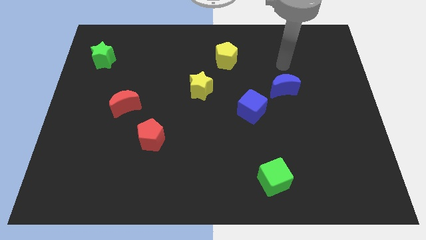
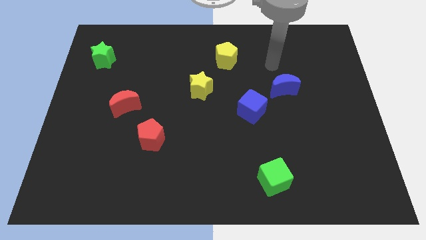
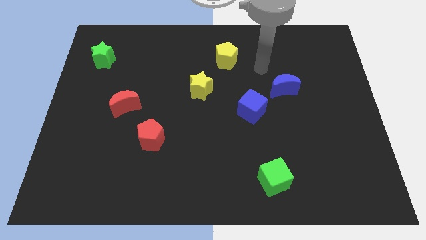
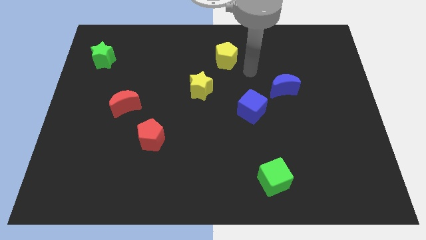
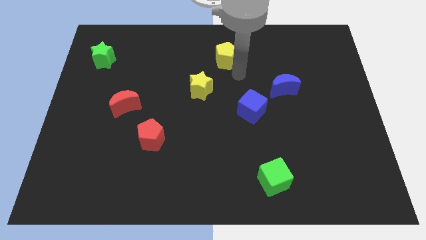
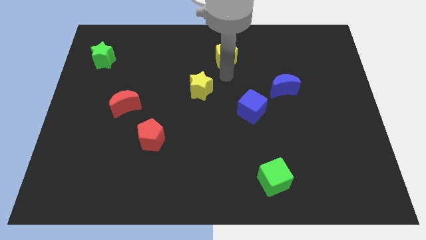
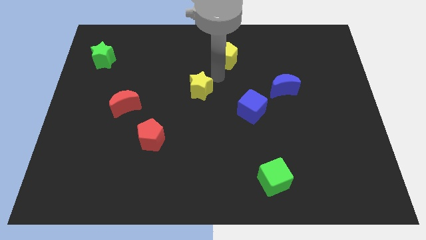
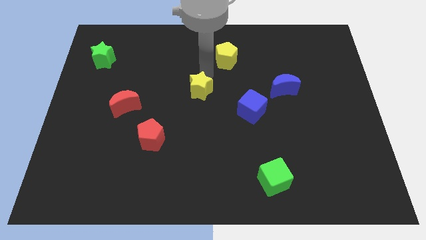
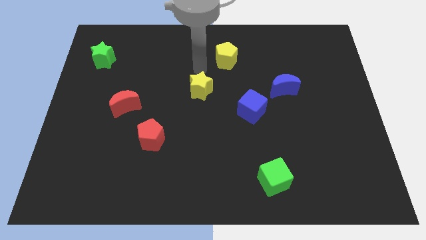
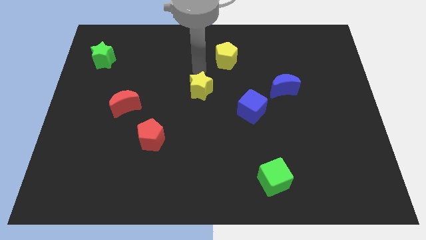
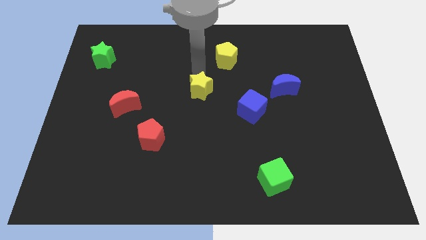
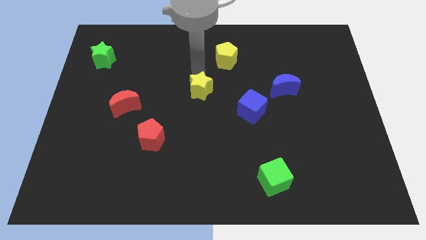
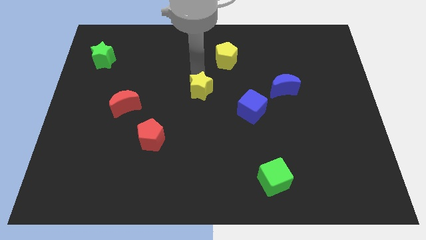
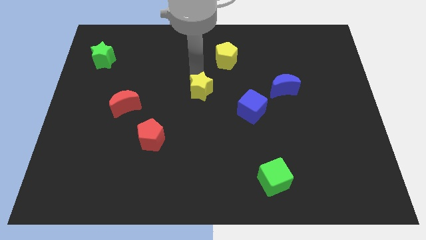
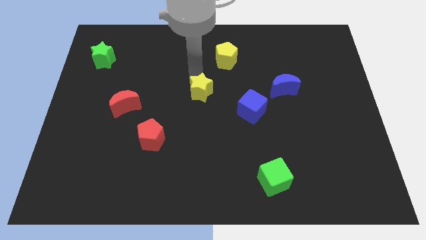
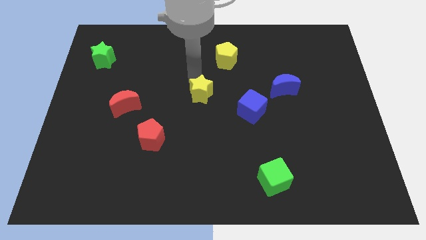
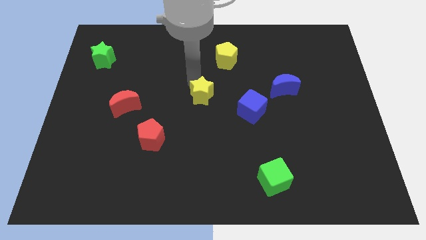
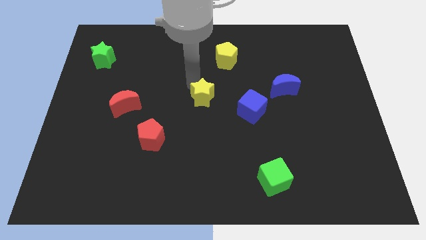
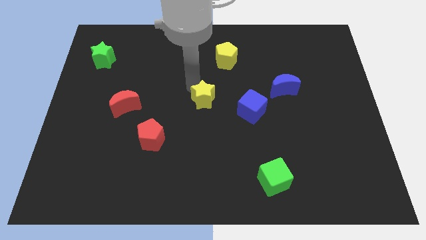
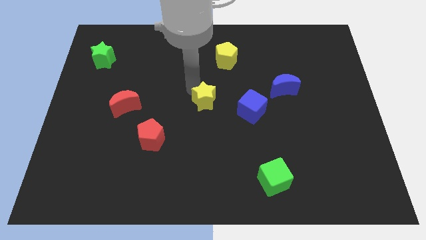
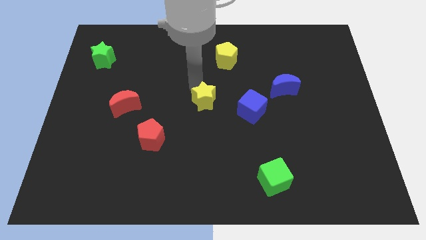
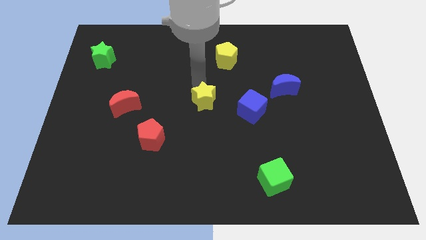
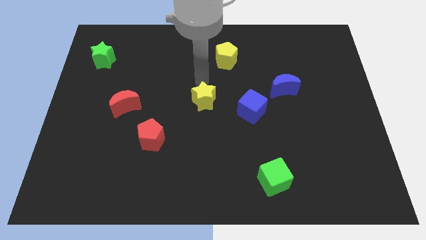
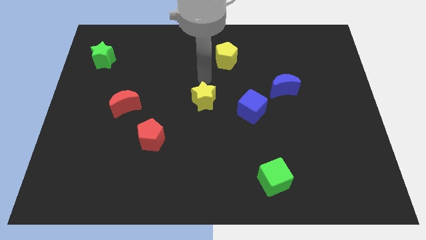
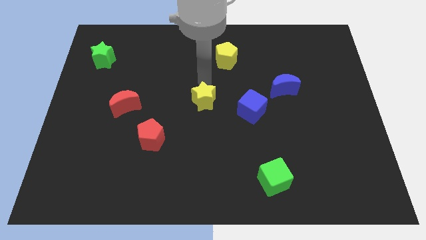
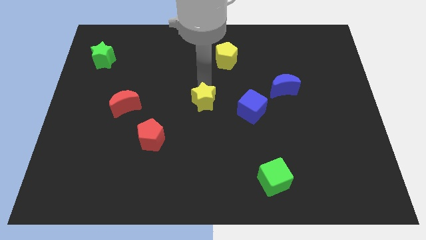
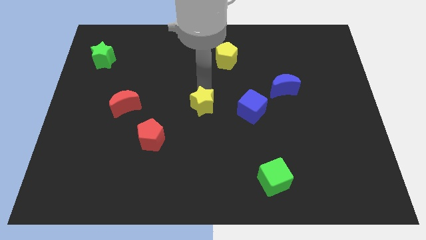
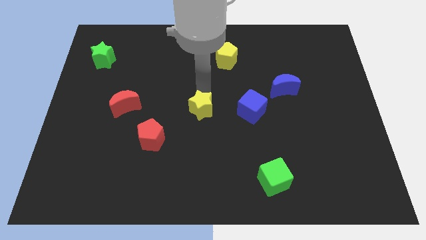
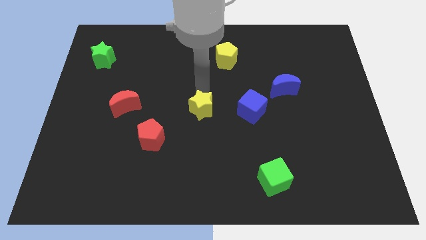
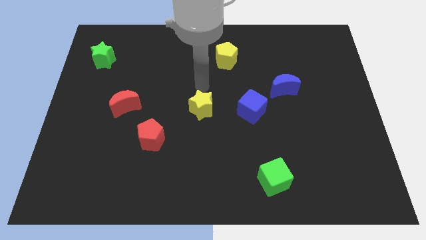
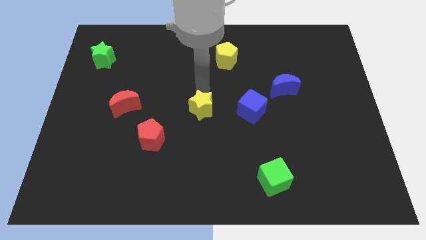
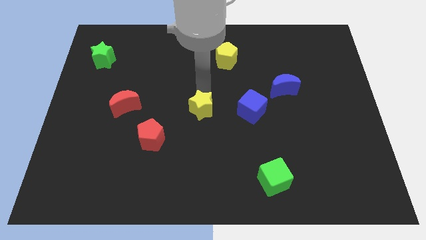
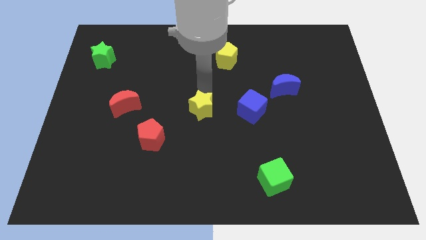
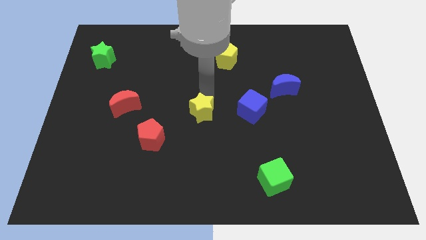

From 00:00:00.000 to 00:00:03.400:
push the yellow star a little downwards

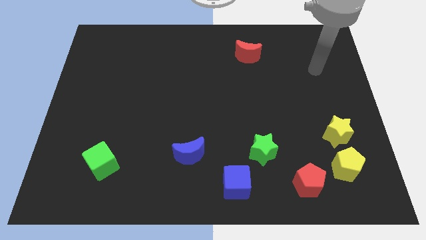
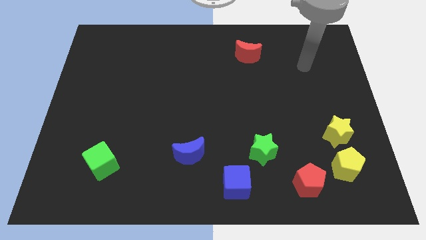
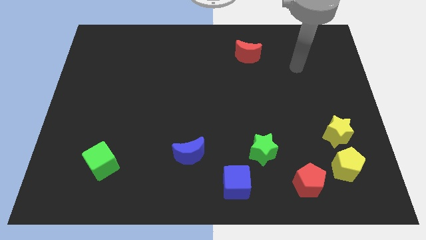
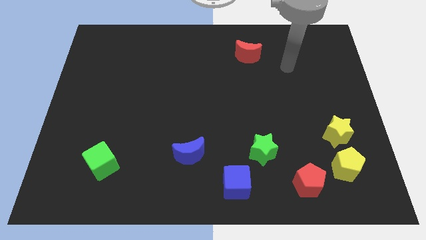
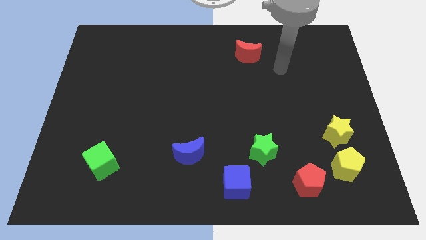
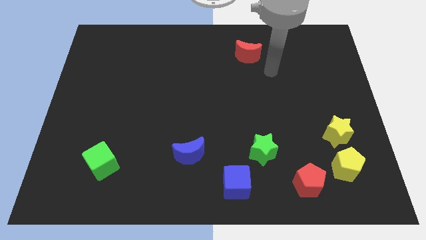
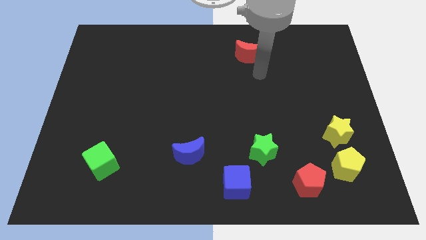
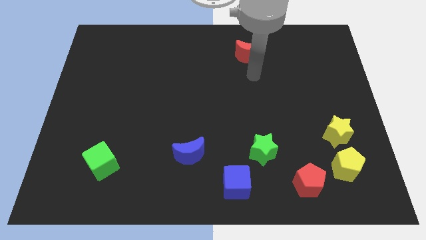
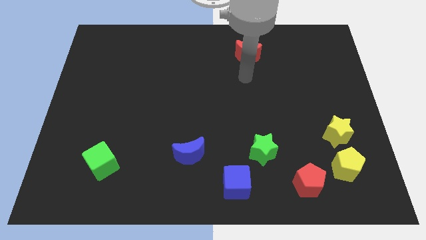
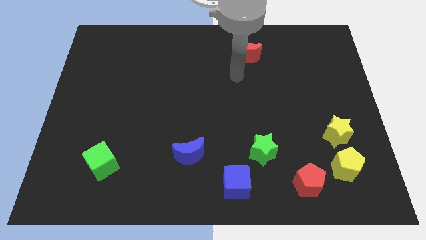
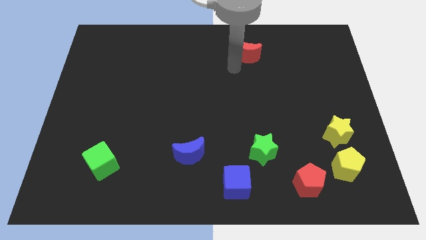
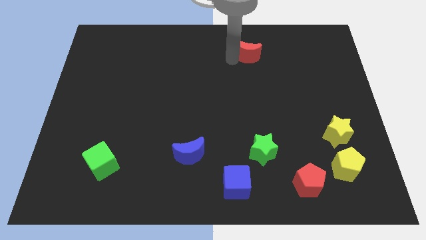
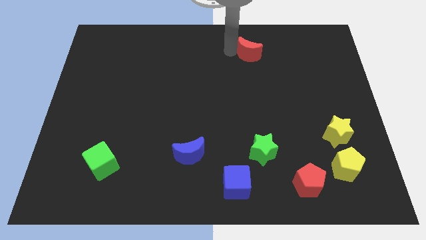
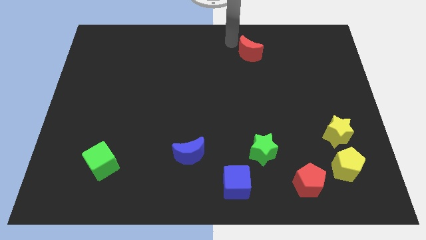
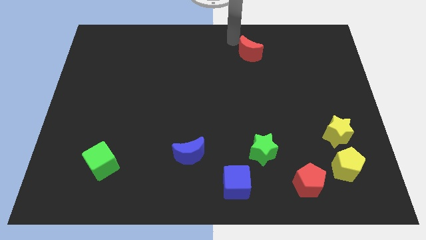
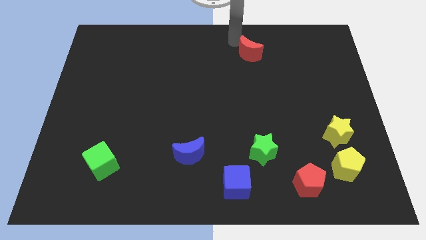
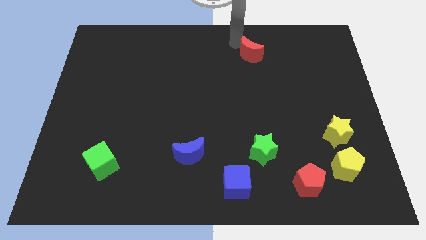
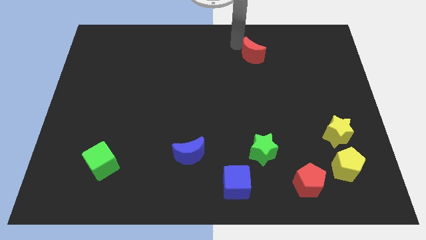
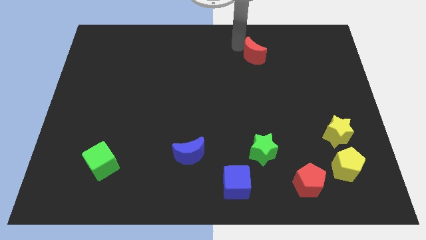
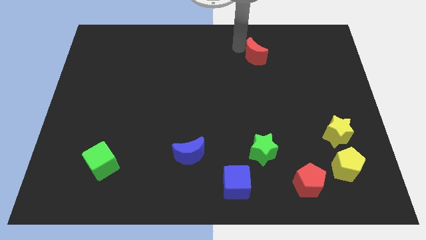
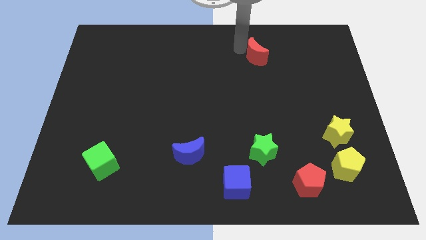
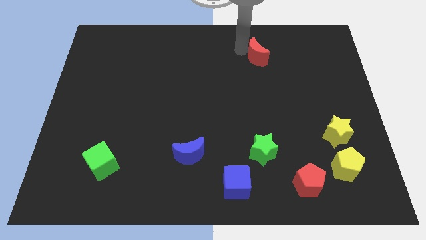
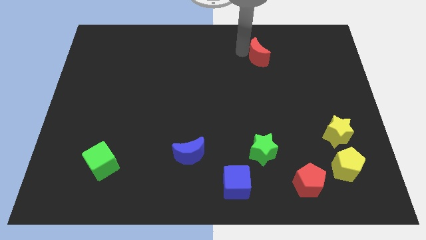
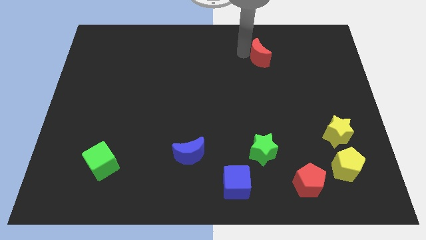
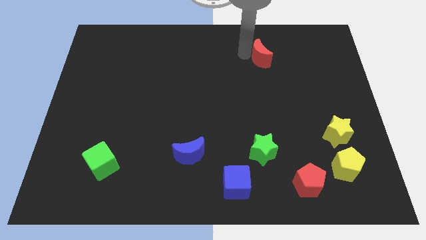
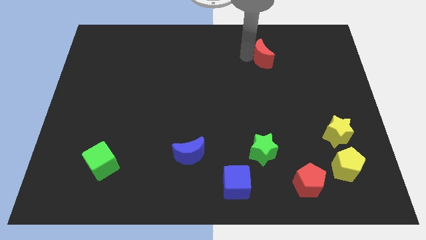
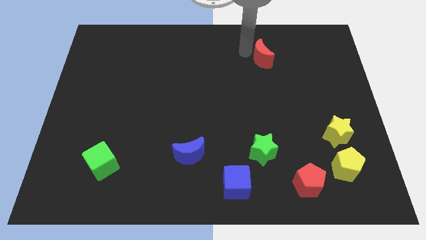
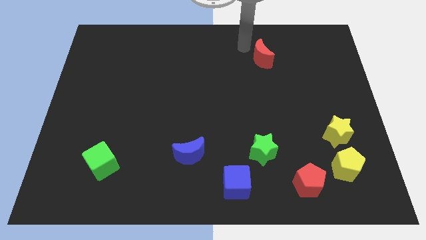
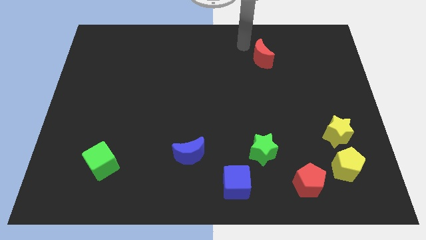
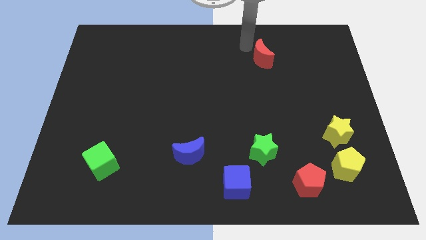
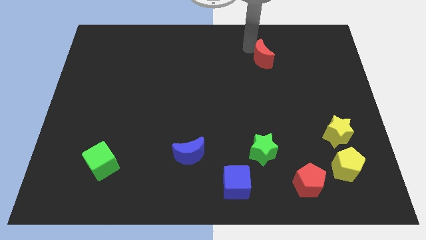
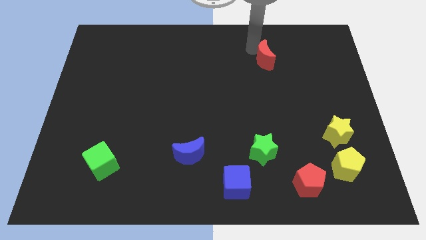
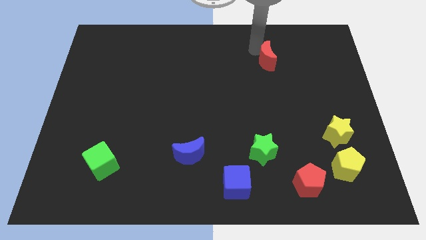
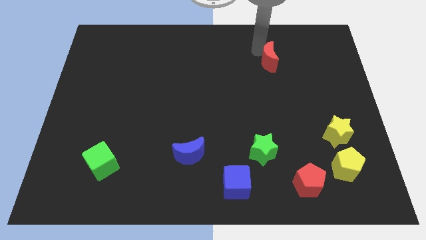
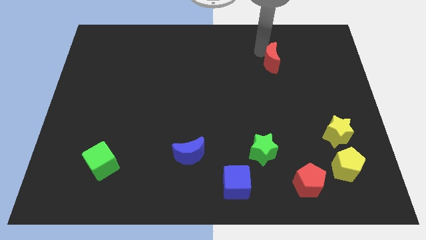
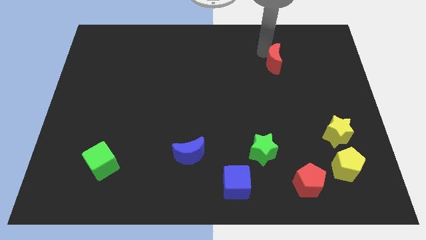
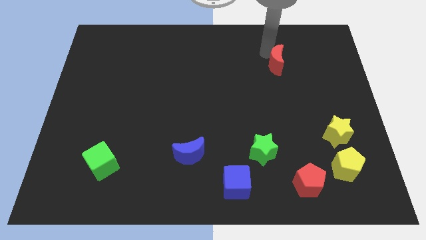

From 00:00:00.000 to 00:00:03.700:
slide the red moon somewhat downwards and then to the right

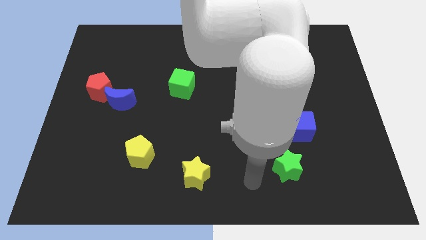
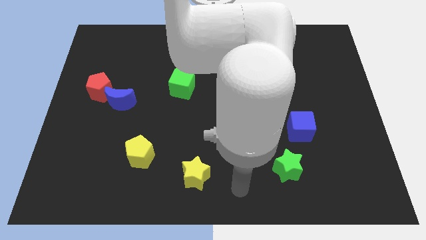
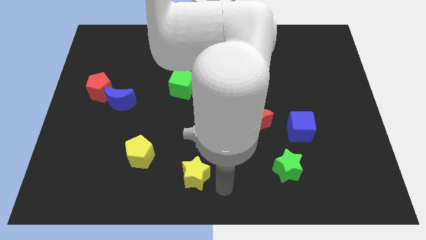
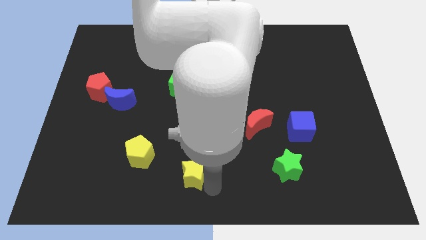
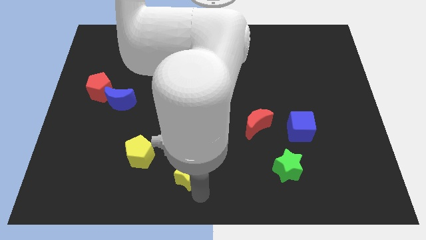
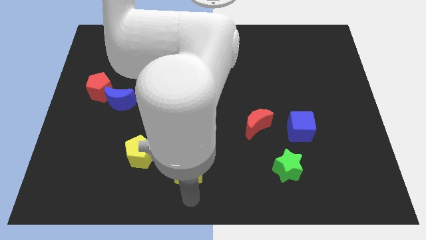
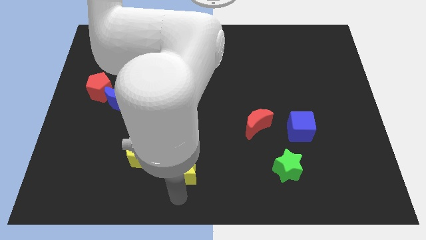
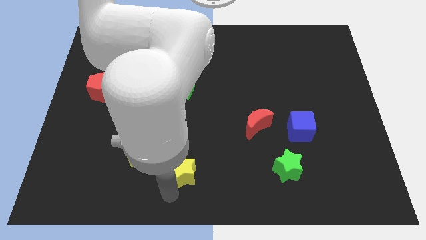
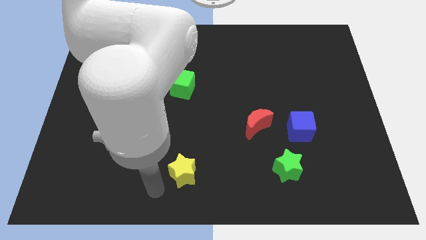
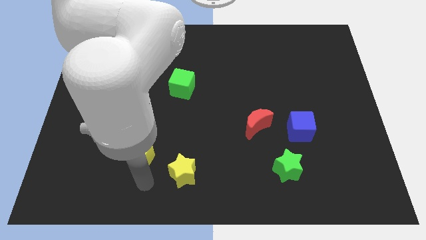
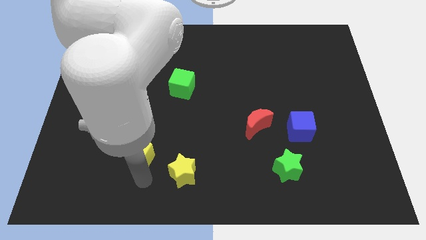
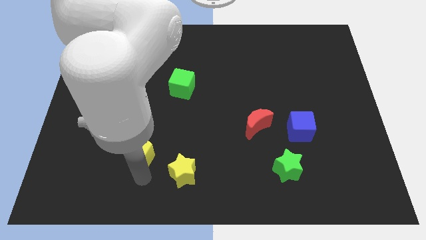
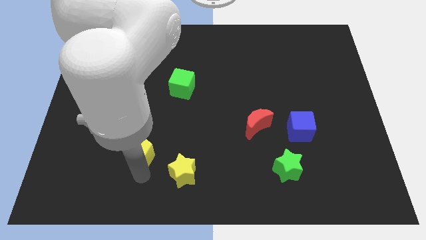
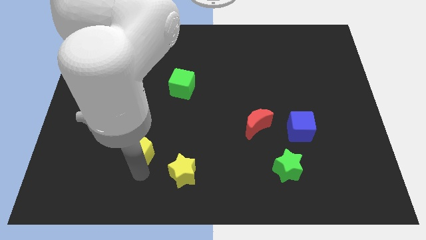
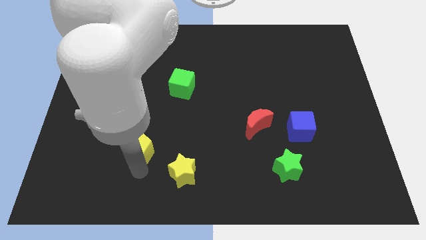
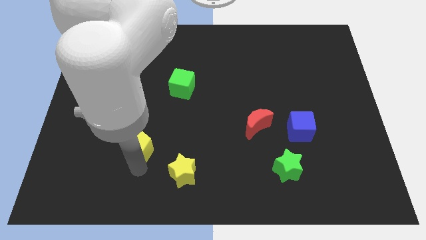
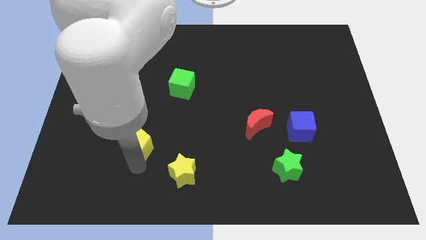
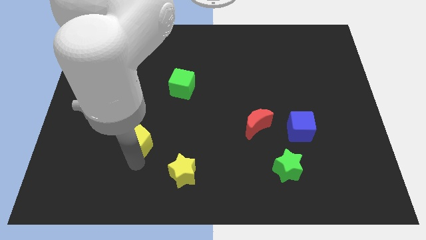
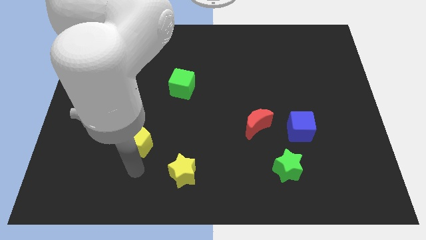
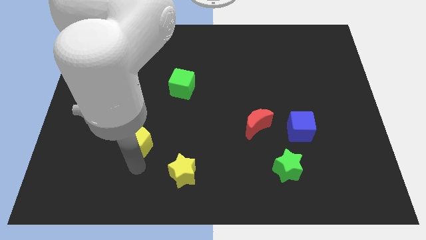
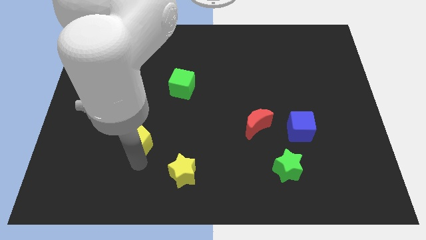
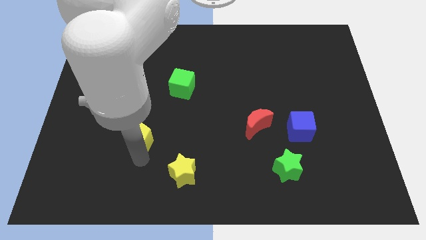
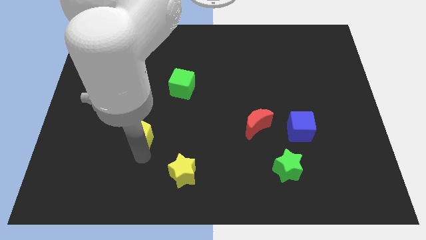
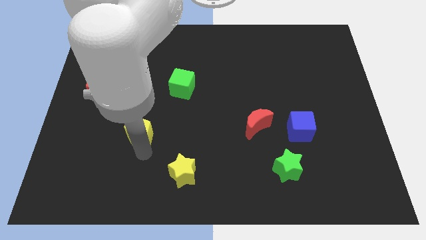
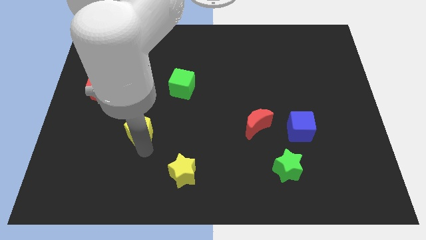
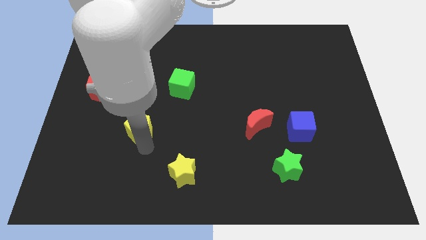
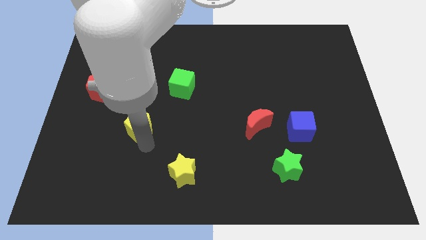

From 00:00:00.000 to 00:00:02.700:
slightly slide the yellow pentagon up
